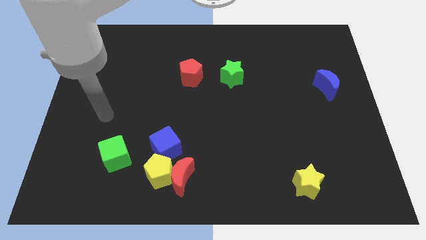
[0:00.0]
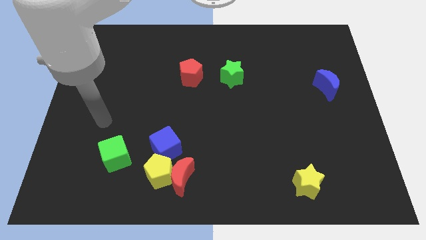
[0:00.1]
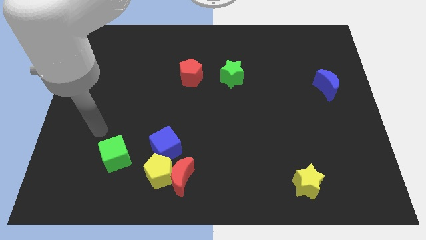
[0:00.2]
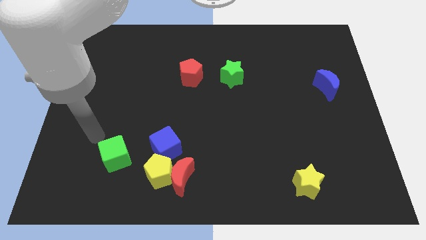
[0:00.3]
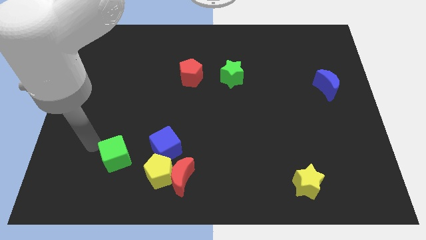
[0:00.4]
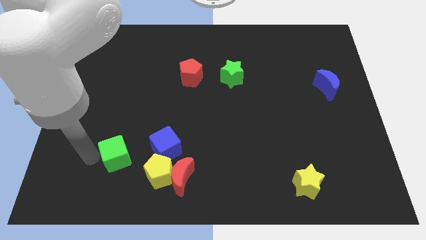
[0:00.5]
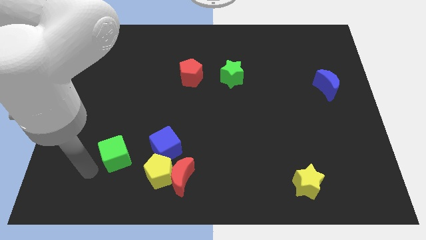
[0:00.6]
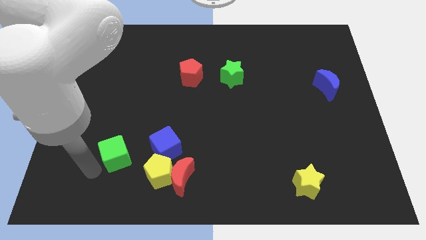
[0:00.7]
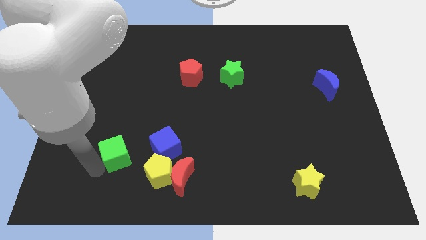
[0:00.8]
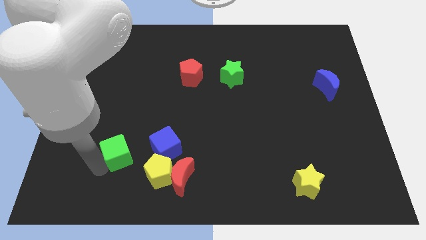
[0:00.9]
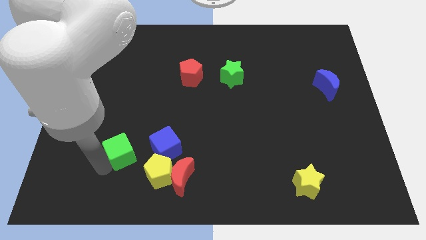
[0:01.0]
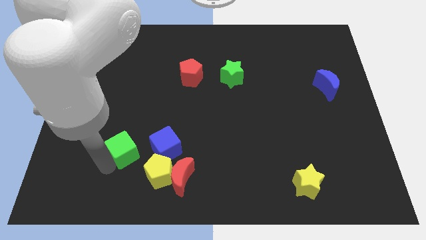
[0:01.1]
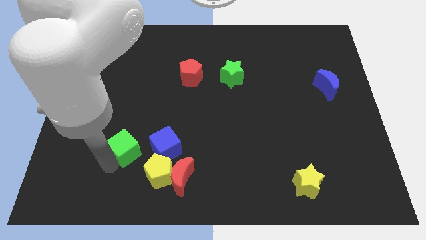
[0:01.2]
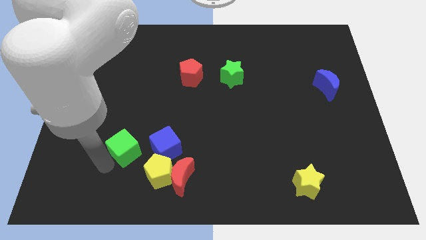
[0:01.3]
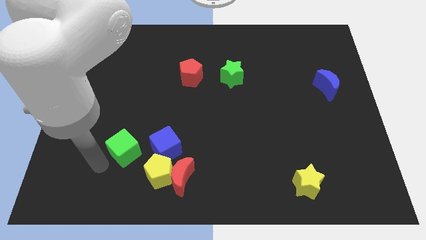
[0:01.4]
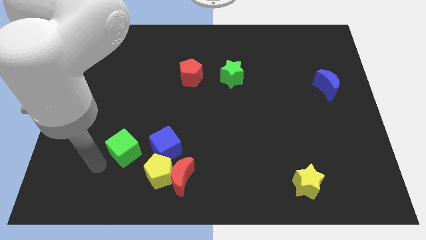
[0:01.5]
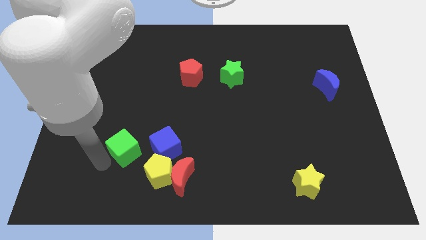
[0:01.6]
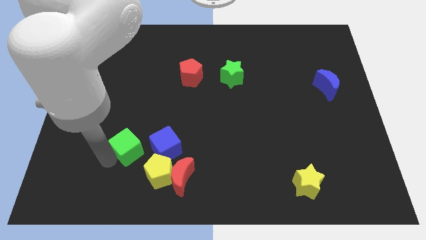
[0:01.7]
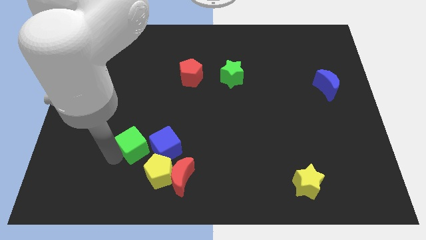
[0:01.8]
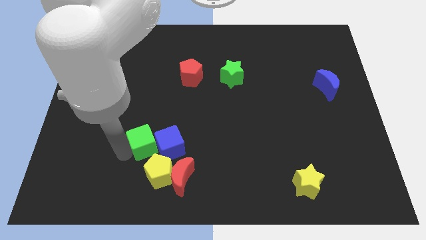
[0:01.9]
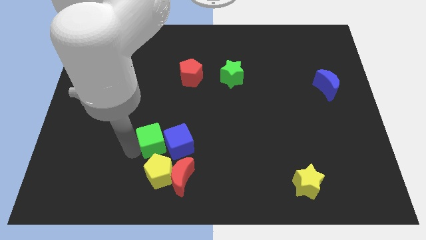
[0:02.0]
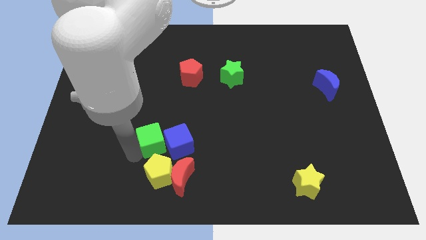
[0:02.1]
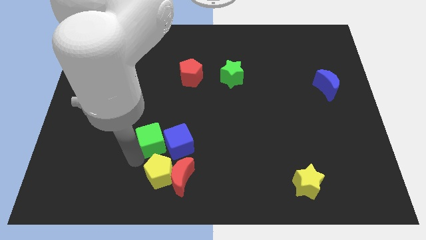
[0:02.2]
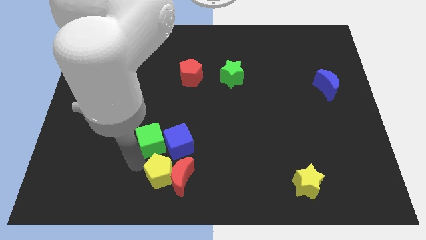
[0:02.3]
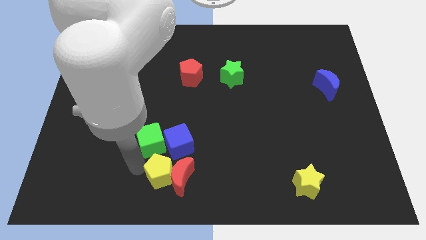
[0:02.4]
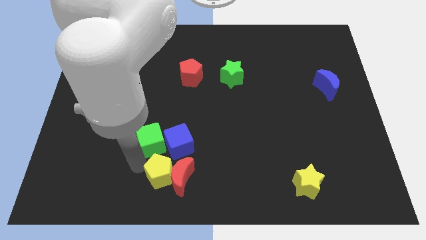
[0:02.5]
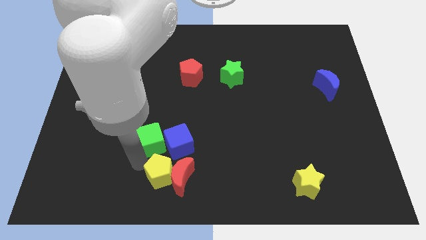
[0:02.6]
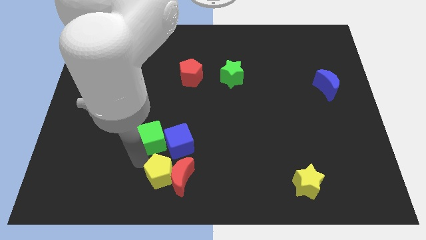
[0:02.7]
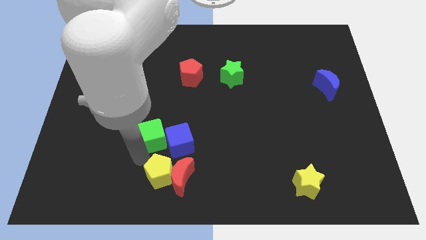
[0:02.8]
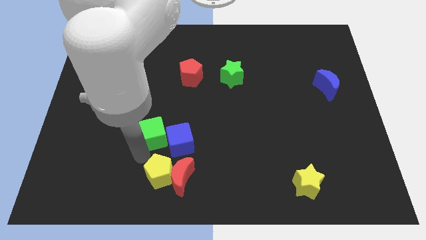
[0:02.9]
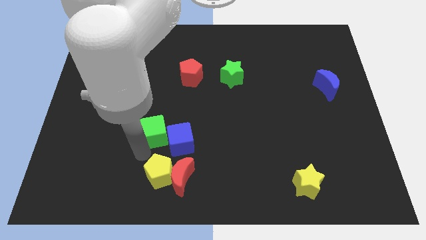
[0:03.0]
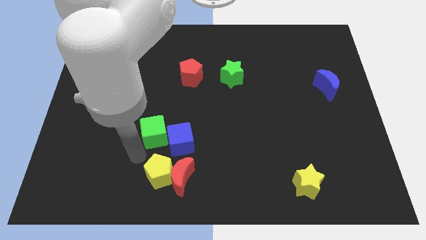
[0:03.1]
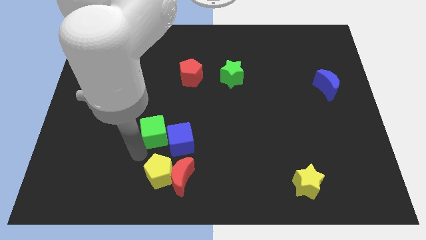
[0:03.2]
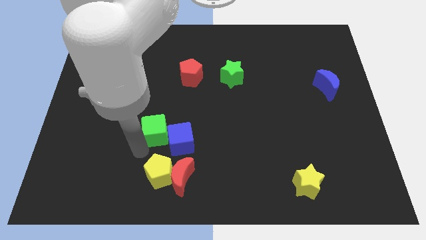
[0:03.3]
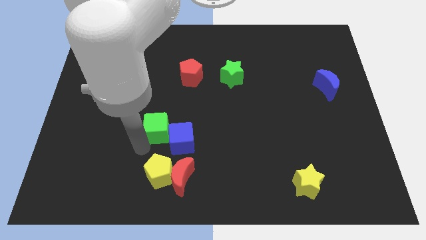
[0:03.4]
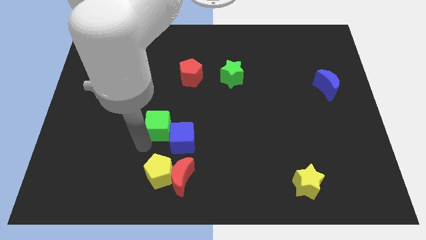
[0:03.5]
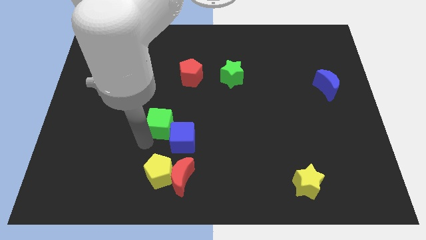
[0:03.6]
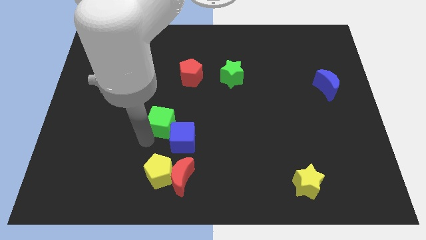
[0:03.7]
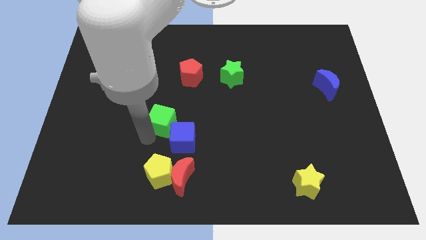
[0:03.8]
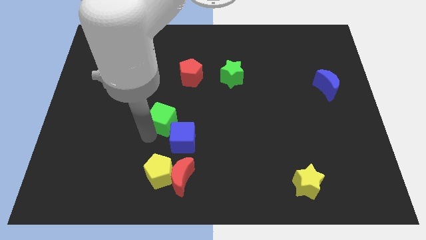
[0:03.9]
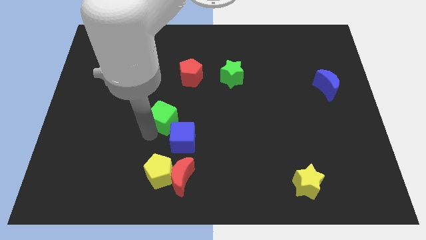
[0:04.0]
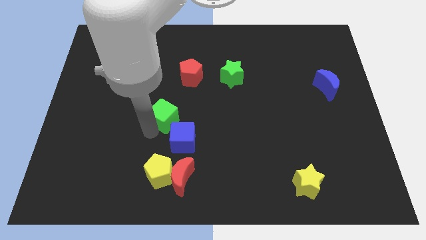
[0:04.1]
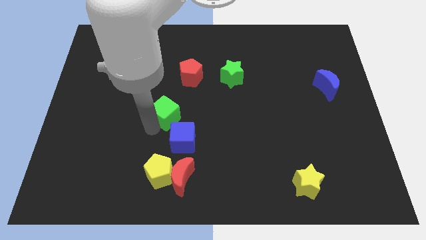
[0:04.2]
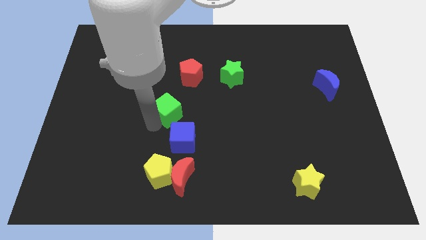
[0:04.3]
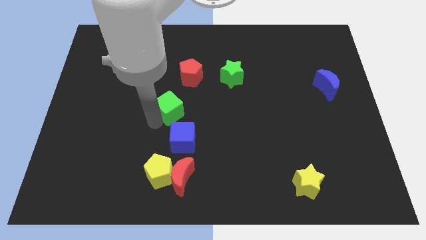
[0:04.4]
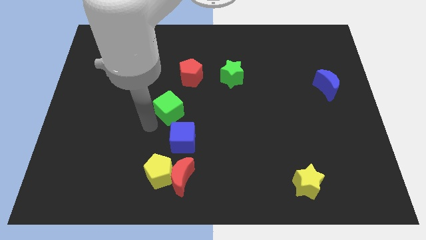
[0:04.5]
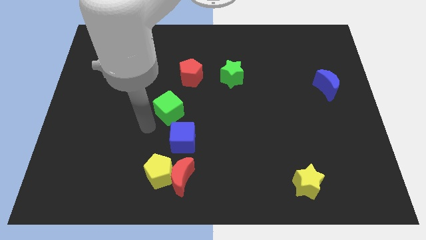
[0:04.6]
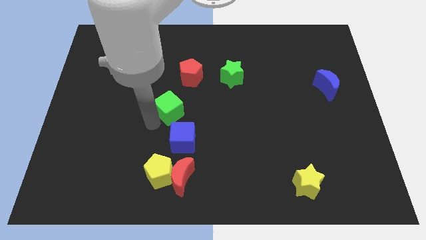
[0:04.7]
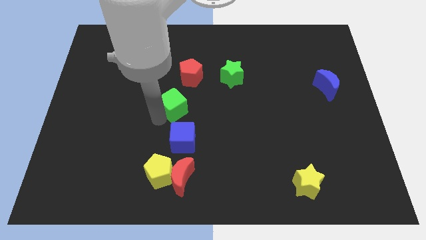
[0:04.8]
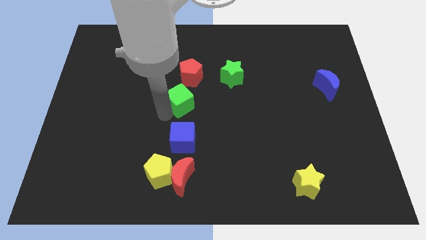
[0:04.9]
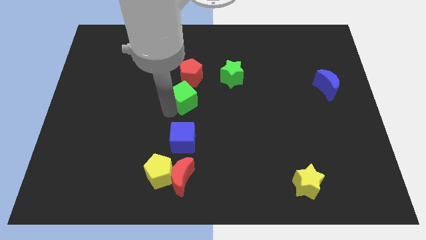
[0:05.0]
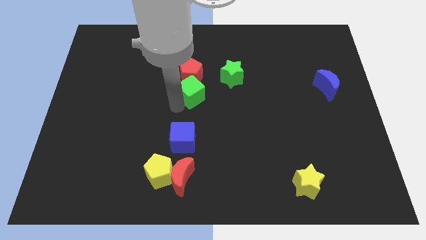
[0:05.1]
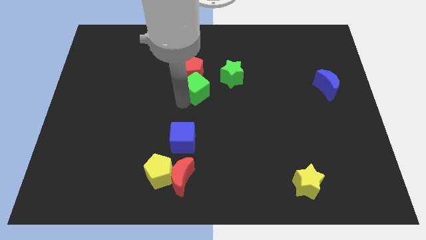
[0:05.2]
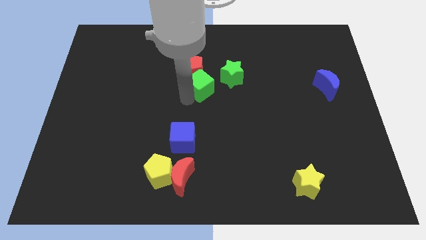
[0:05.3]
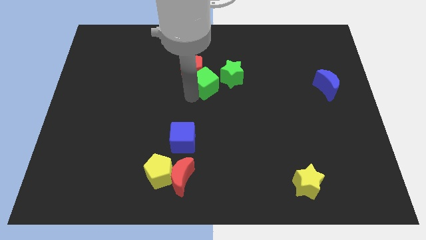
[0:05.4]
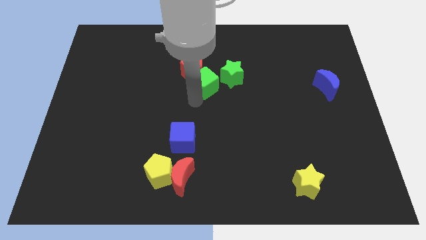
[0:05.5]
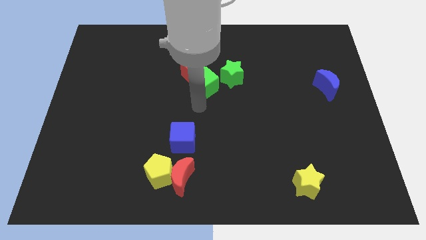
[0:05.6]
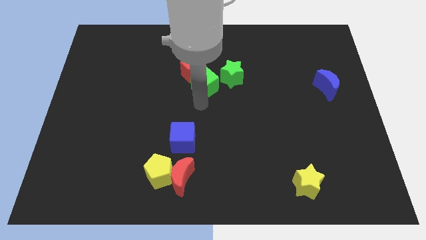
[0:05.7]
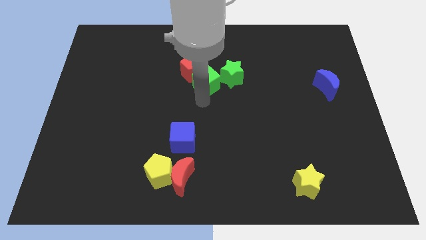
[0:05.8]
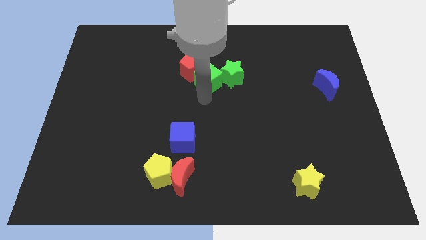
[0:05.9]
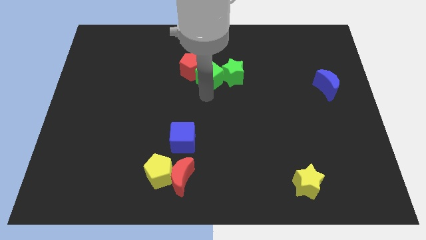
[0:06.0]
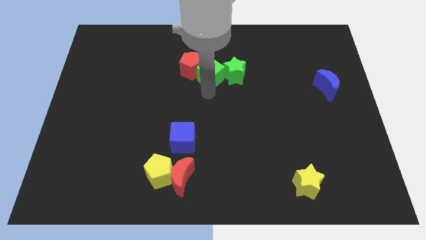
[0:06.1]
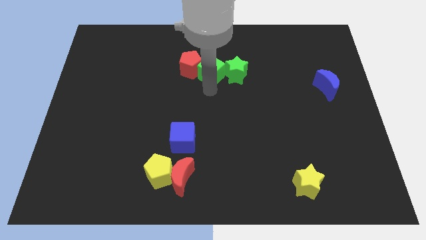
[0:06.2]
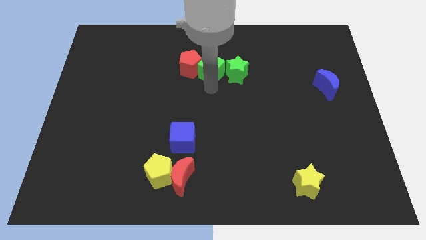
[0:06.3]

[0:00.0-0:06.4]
move the green cube to the top right of the red pentagon

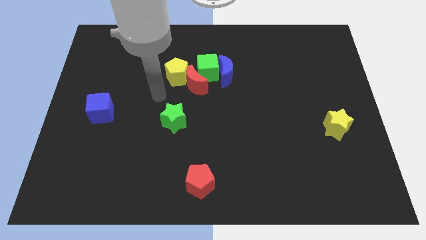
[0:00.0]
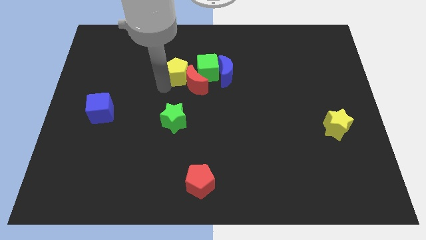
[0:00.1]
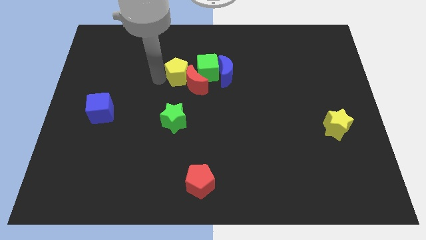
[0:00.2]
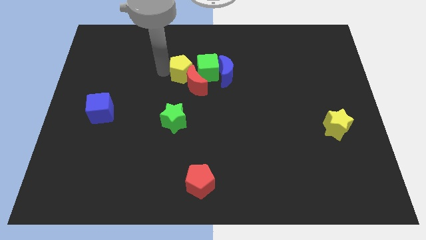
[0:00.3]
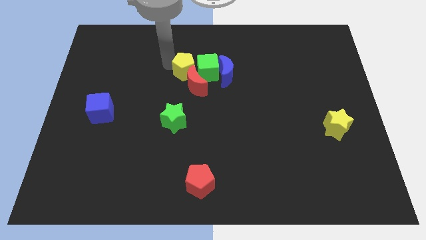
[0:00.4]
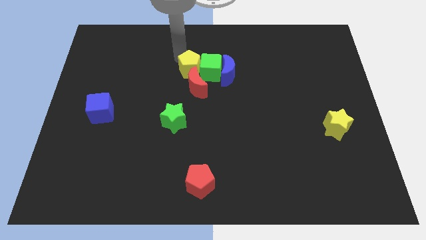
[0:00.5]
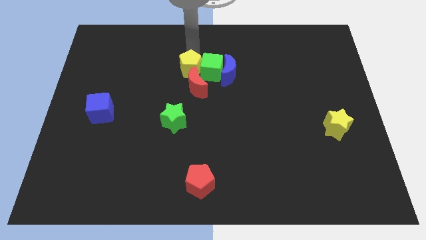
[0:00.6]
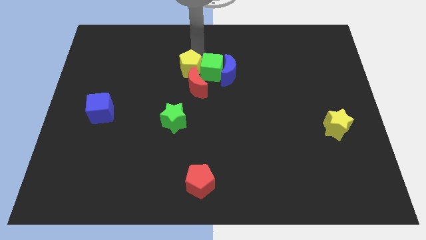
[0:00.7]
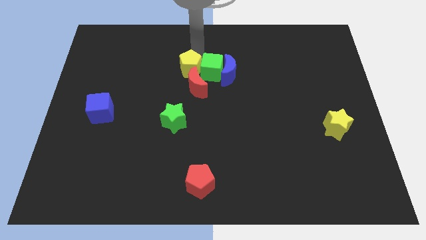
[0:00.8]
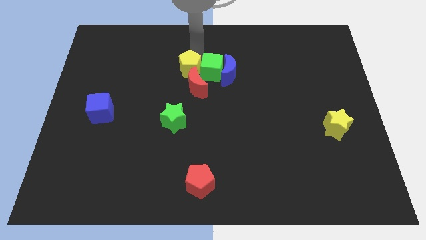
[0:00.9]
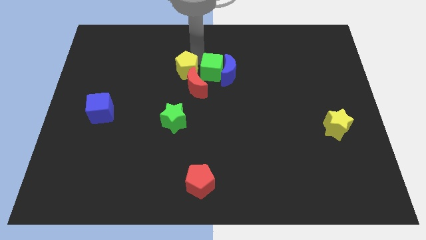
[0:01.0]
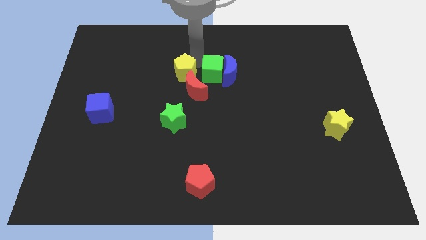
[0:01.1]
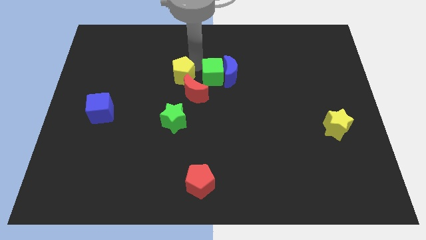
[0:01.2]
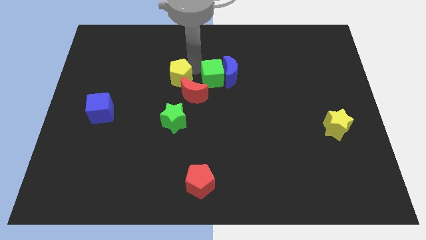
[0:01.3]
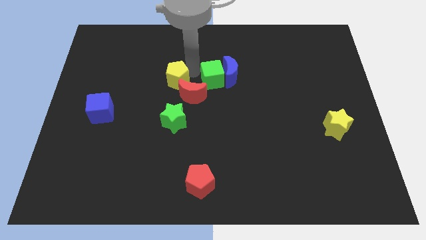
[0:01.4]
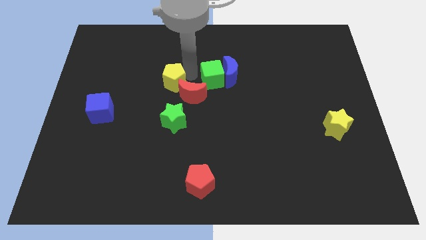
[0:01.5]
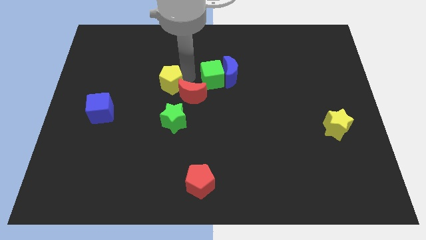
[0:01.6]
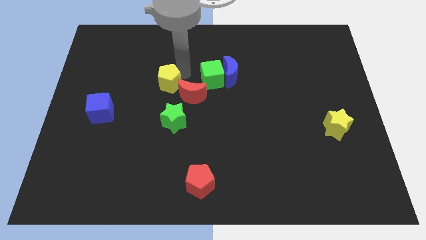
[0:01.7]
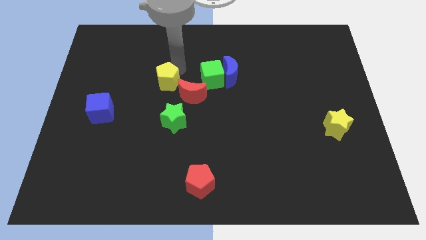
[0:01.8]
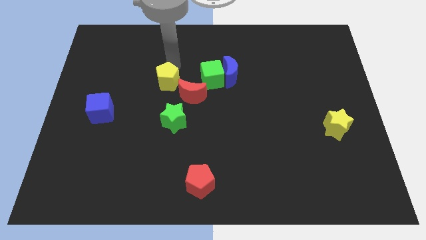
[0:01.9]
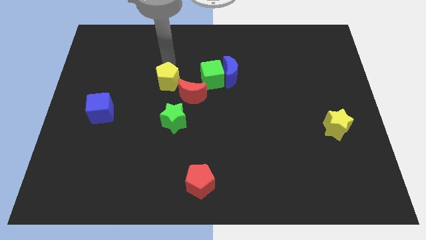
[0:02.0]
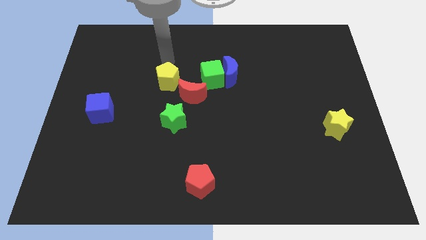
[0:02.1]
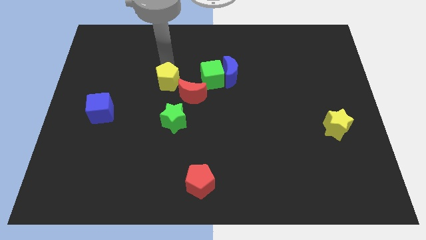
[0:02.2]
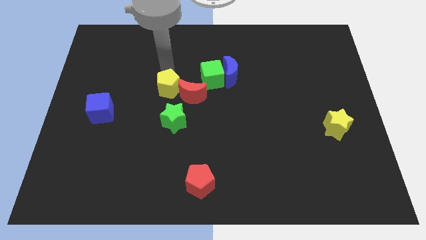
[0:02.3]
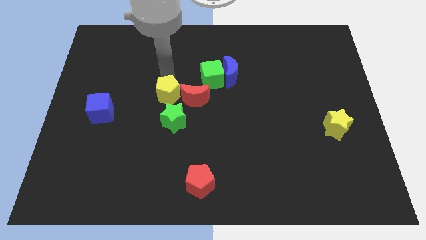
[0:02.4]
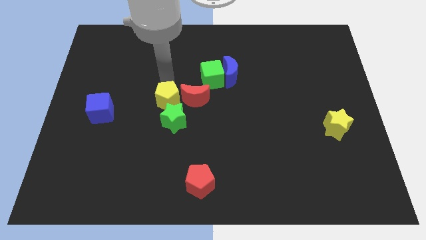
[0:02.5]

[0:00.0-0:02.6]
push the yellow pentagon to the bottom left side of the red moon
